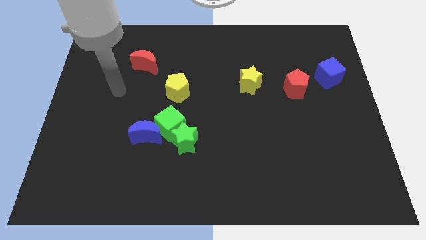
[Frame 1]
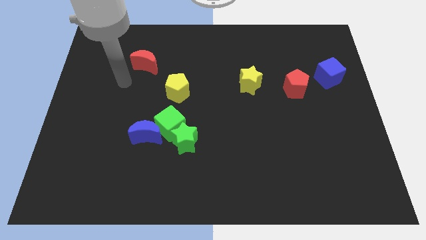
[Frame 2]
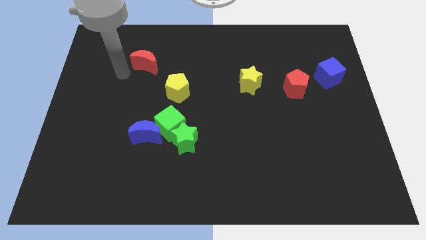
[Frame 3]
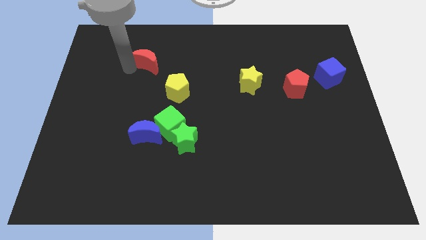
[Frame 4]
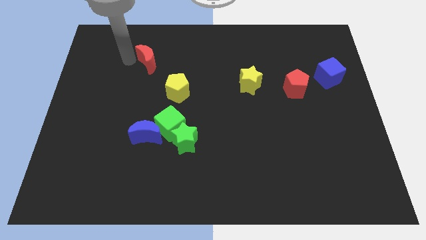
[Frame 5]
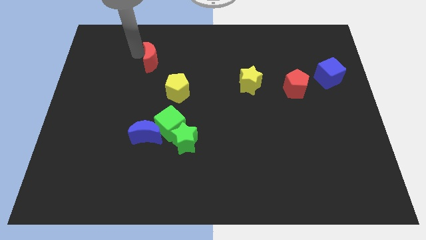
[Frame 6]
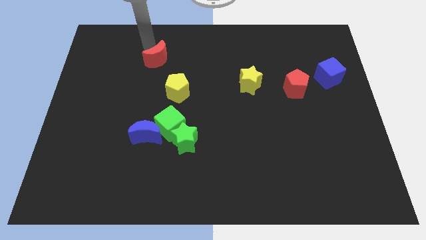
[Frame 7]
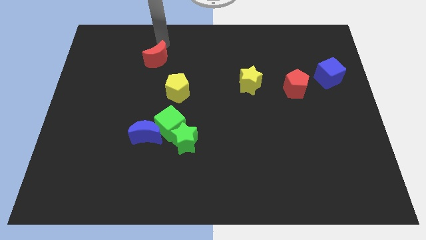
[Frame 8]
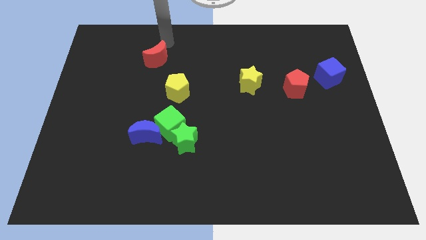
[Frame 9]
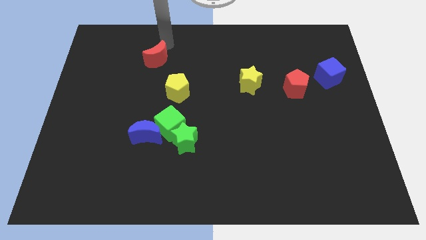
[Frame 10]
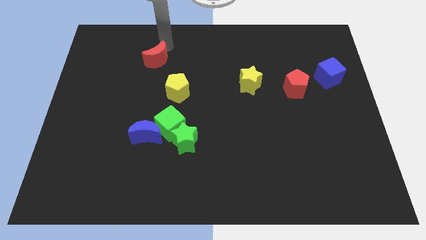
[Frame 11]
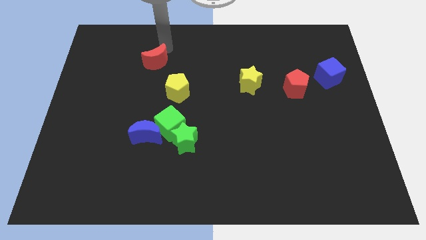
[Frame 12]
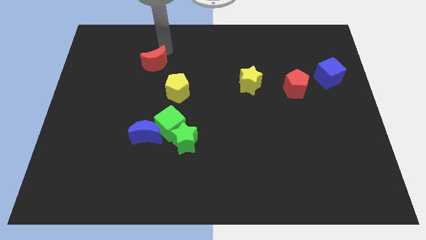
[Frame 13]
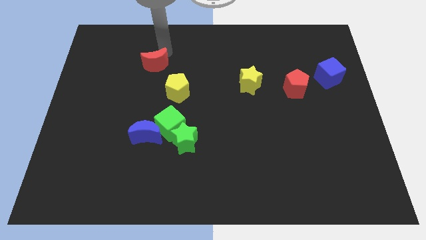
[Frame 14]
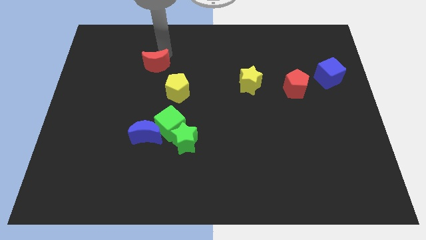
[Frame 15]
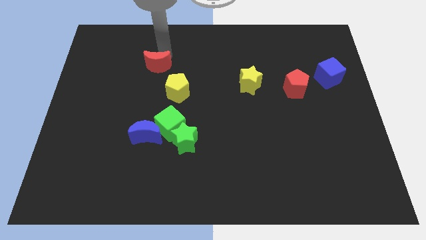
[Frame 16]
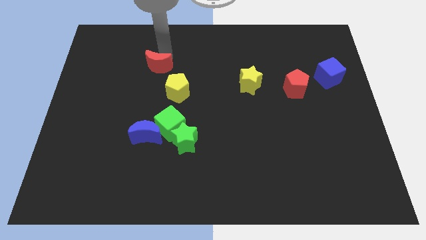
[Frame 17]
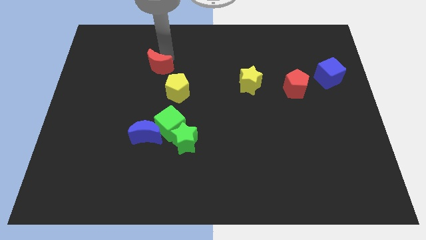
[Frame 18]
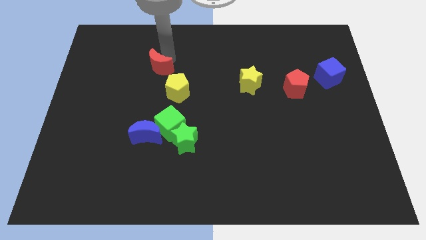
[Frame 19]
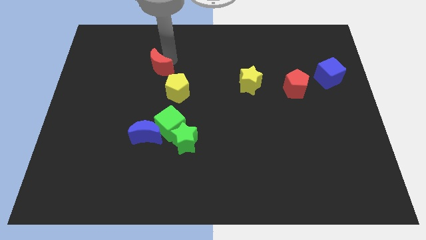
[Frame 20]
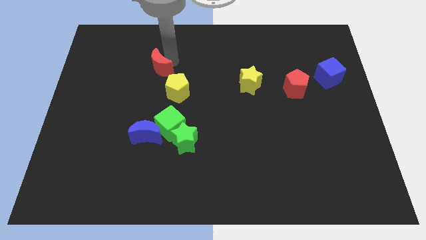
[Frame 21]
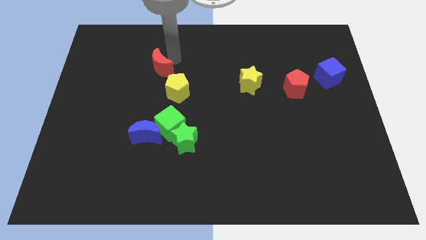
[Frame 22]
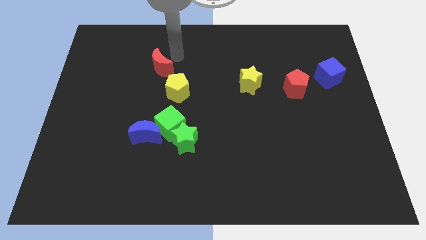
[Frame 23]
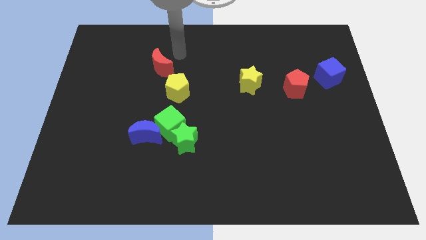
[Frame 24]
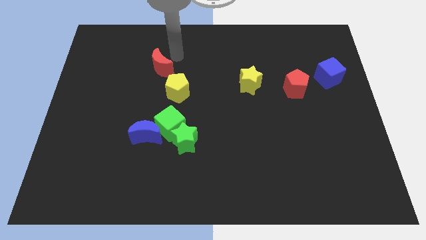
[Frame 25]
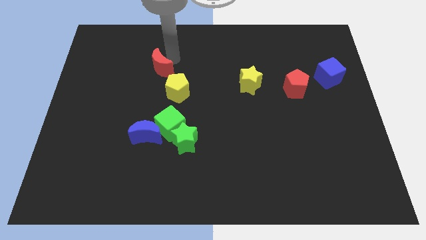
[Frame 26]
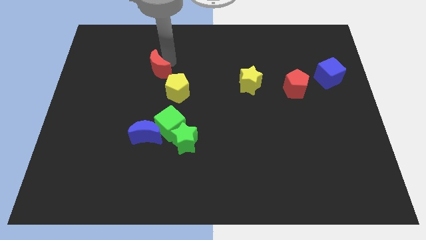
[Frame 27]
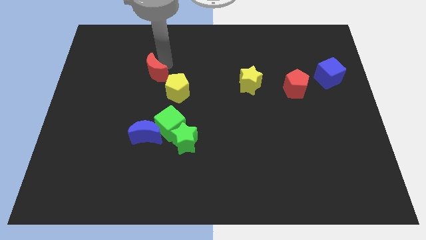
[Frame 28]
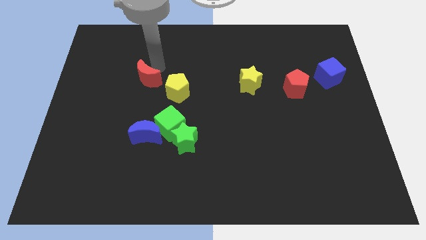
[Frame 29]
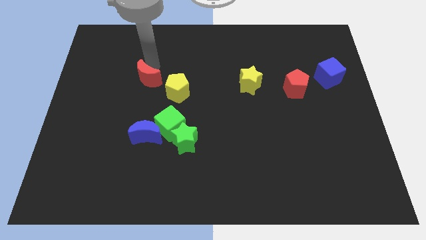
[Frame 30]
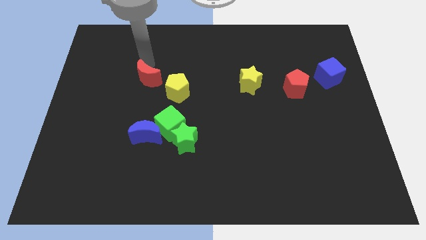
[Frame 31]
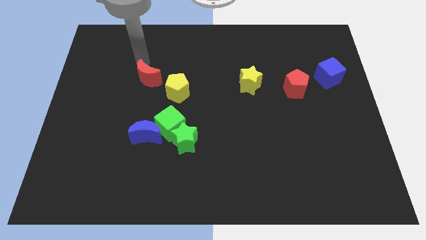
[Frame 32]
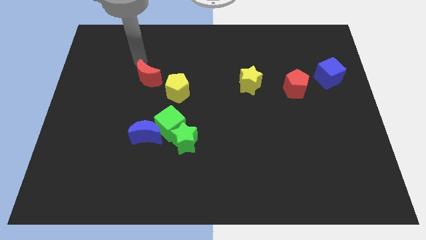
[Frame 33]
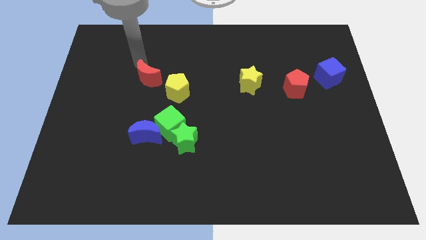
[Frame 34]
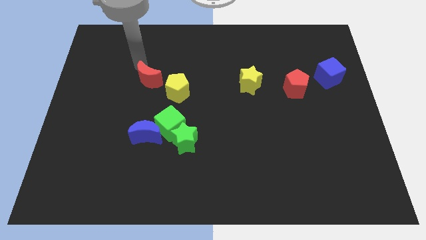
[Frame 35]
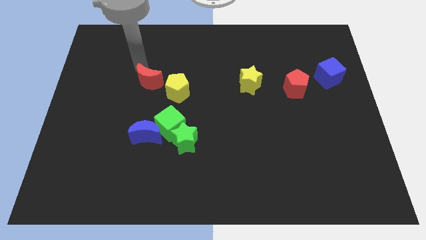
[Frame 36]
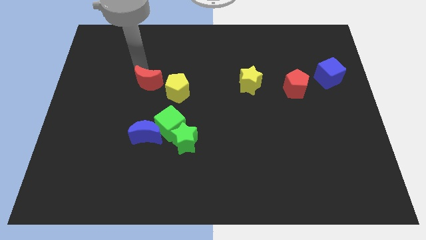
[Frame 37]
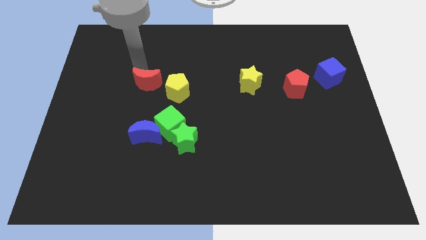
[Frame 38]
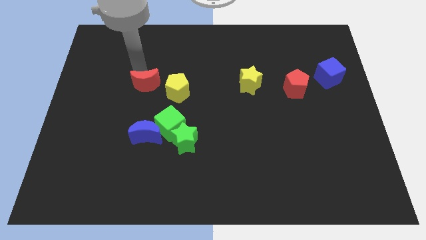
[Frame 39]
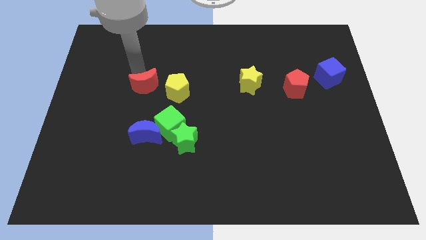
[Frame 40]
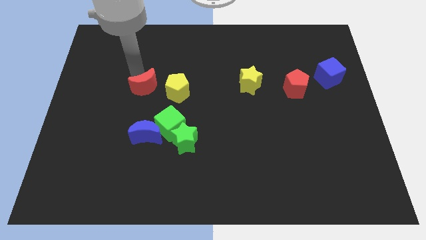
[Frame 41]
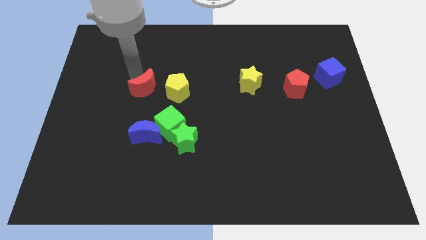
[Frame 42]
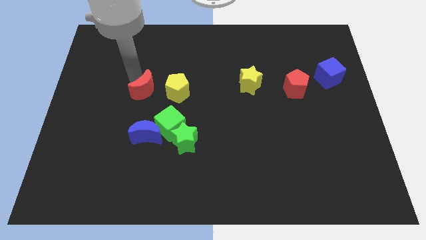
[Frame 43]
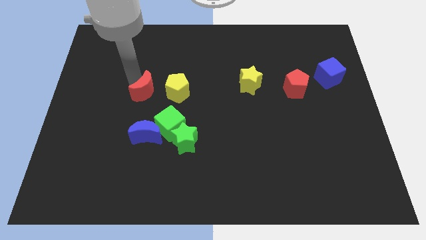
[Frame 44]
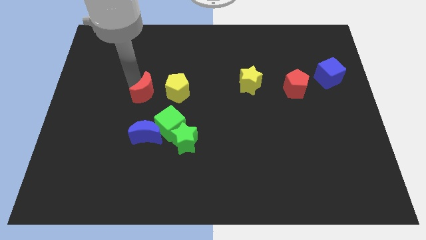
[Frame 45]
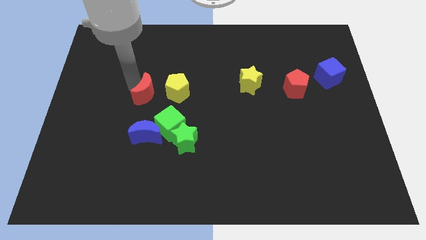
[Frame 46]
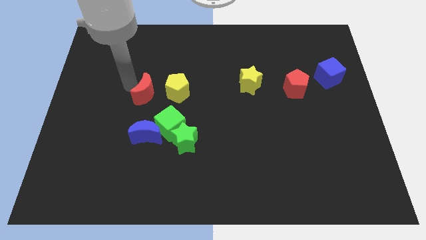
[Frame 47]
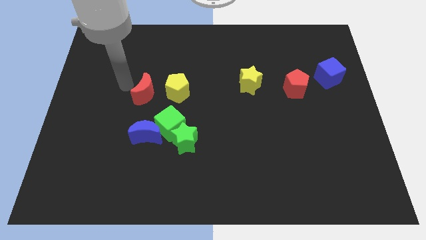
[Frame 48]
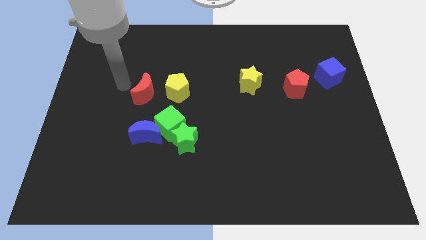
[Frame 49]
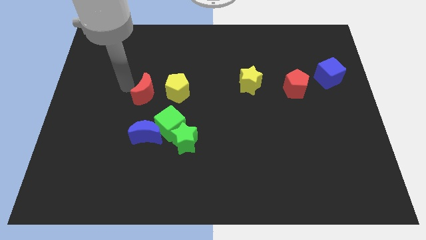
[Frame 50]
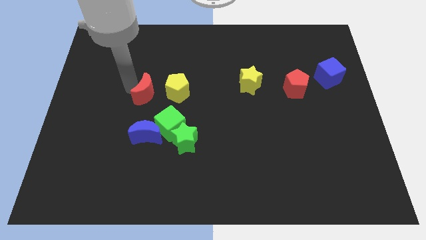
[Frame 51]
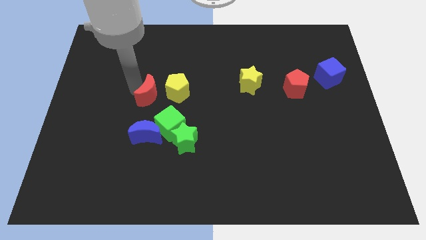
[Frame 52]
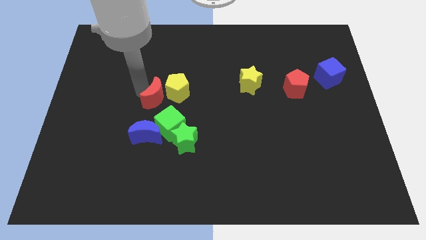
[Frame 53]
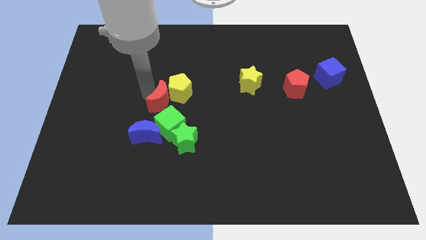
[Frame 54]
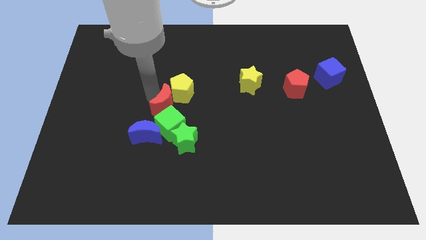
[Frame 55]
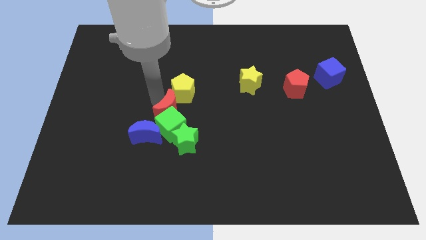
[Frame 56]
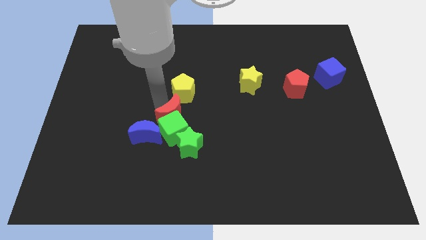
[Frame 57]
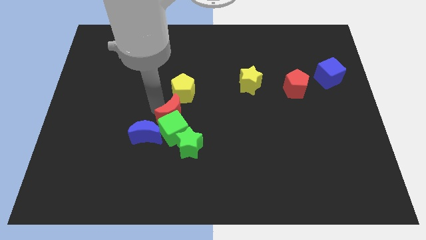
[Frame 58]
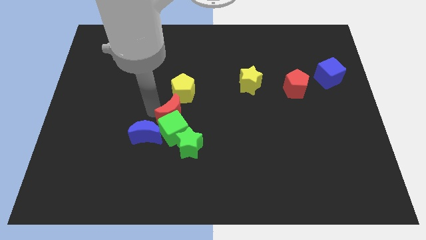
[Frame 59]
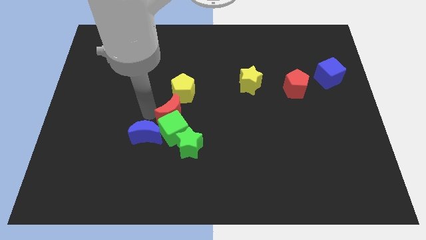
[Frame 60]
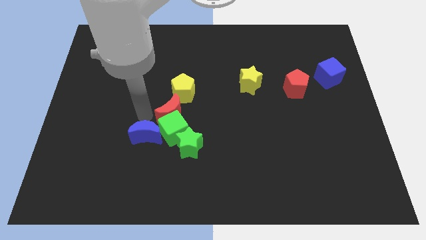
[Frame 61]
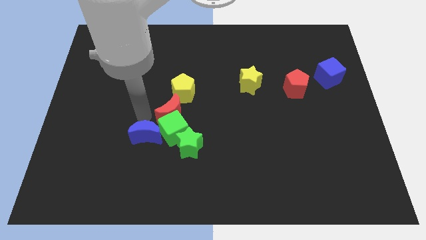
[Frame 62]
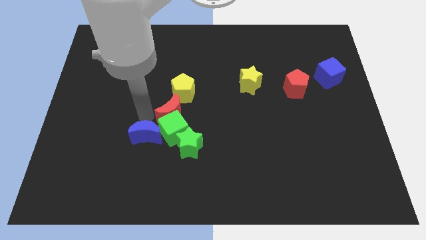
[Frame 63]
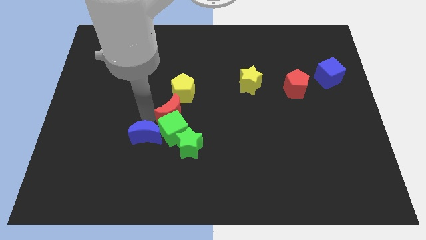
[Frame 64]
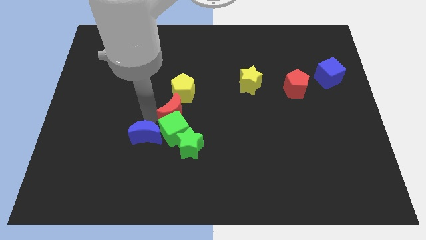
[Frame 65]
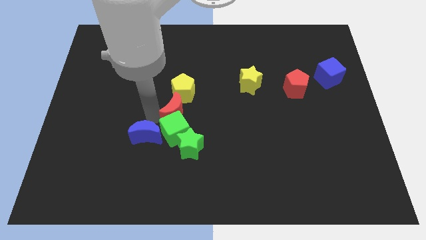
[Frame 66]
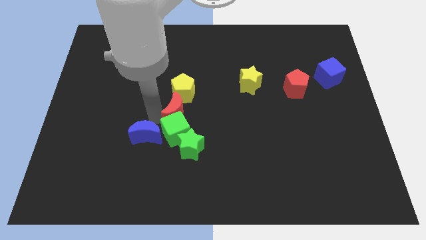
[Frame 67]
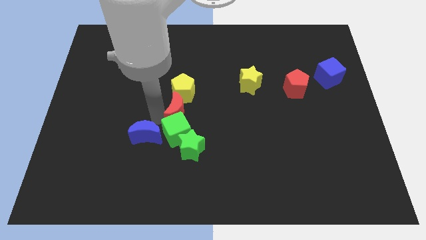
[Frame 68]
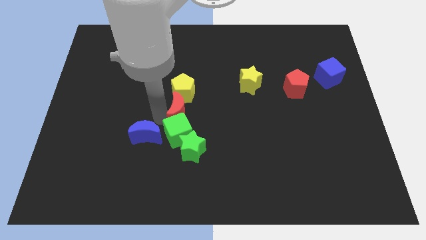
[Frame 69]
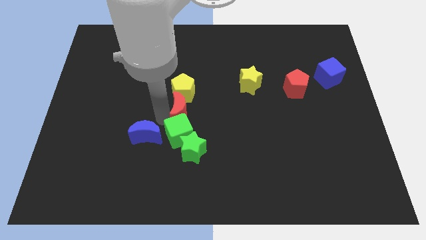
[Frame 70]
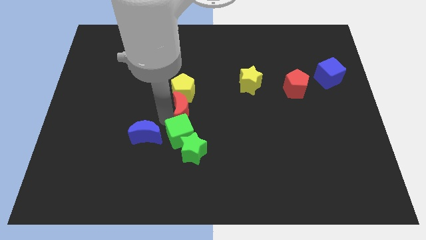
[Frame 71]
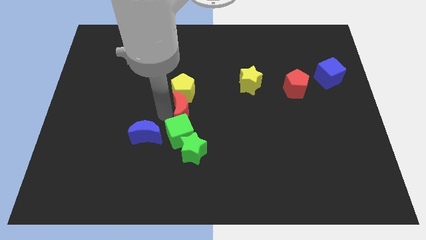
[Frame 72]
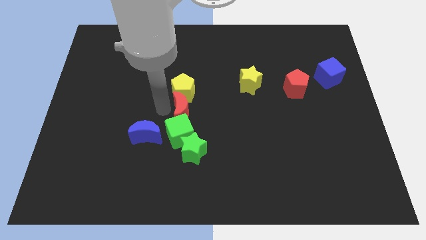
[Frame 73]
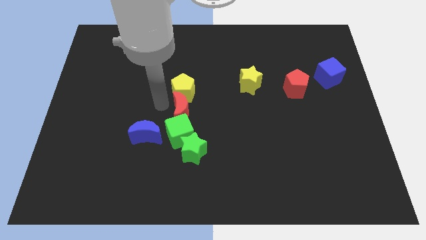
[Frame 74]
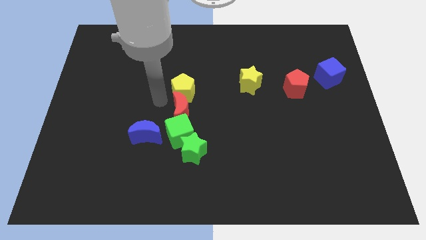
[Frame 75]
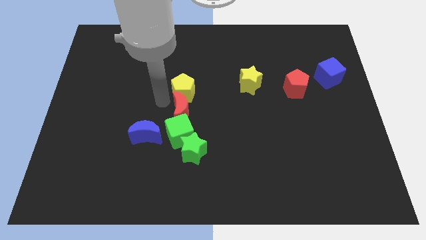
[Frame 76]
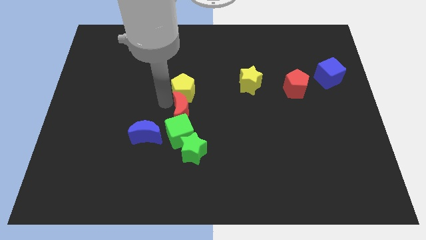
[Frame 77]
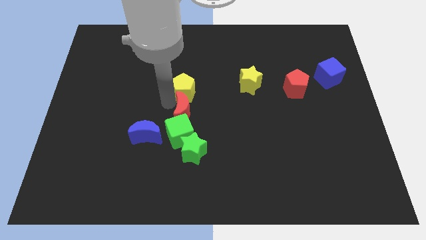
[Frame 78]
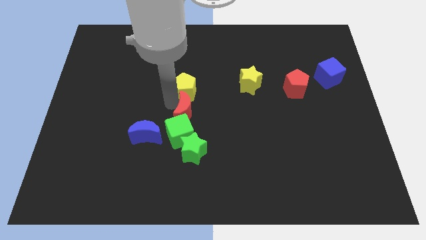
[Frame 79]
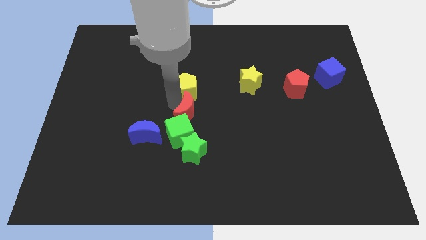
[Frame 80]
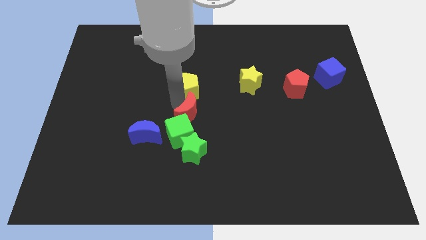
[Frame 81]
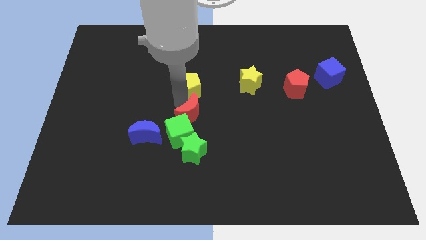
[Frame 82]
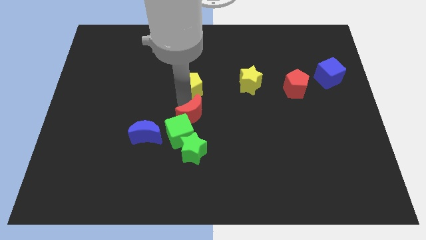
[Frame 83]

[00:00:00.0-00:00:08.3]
move the red moon diagonally downwards and right
